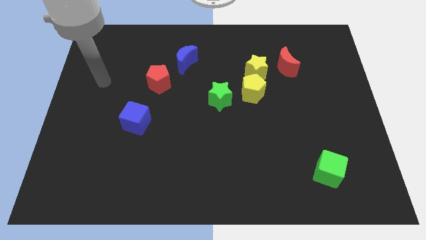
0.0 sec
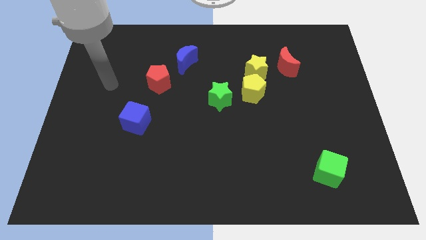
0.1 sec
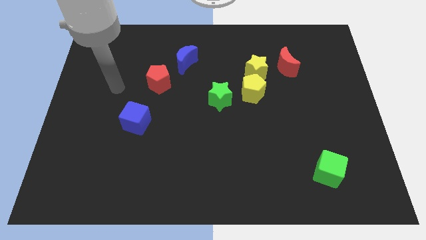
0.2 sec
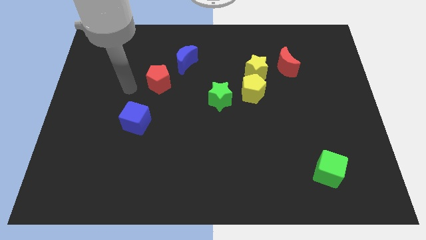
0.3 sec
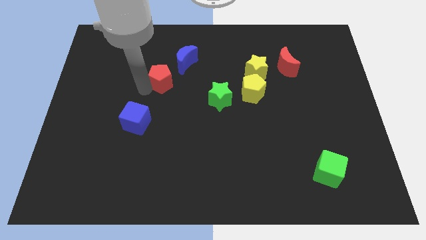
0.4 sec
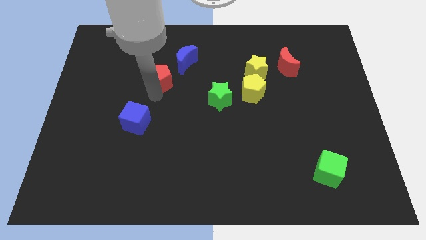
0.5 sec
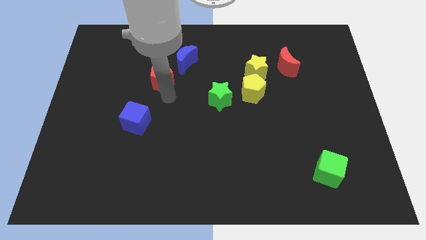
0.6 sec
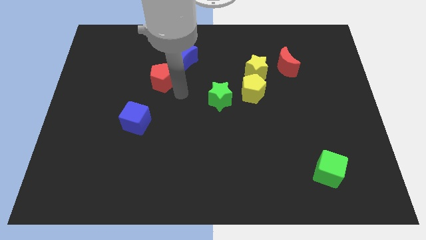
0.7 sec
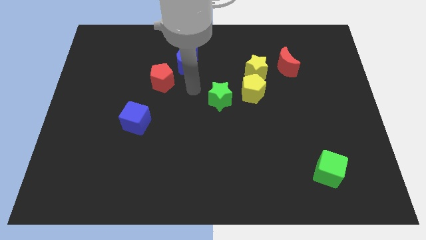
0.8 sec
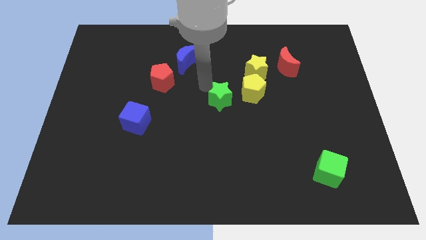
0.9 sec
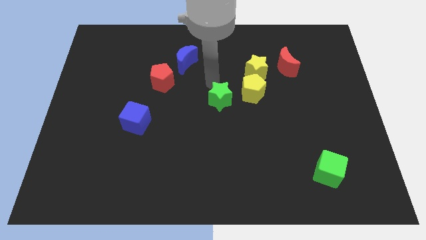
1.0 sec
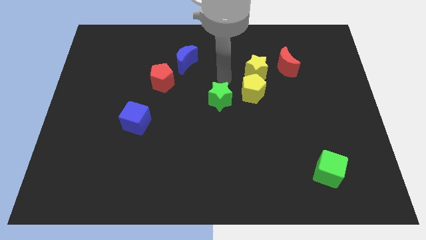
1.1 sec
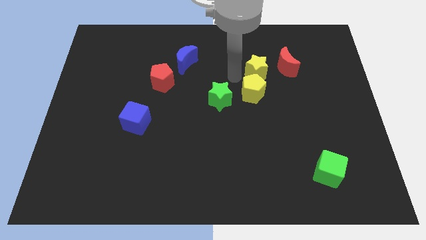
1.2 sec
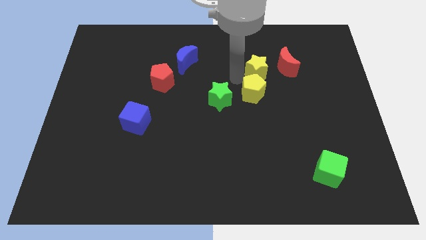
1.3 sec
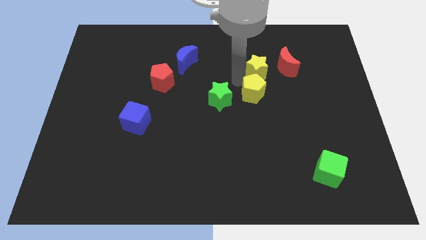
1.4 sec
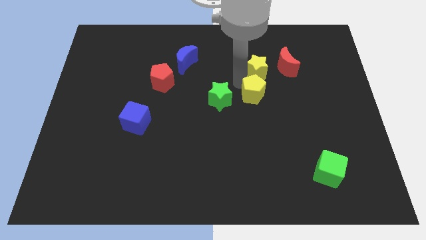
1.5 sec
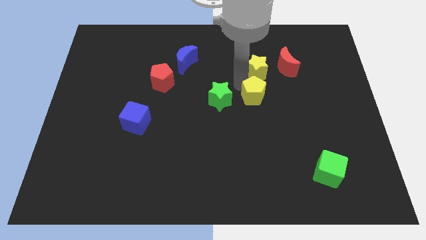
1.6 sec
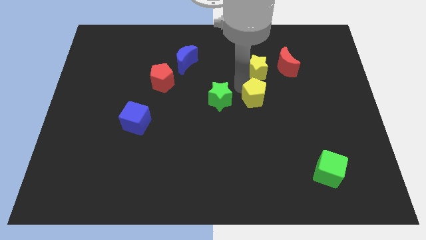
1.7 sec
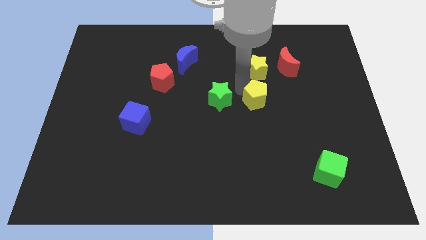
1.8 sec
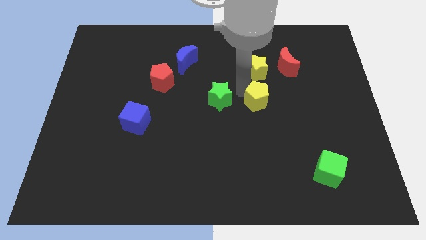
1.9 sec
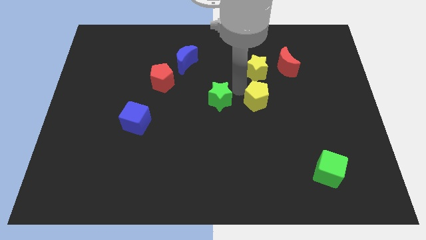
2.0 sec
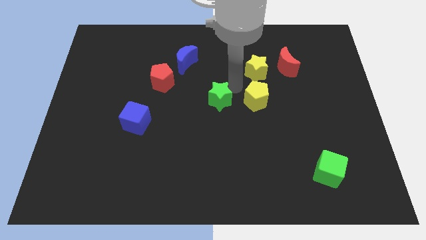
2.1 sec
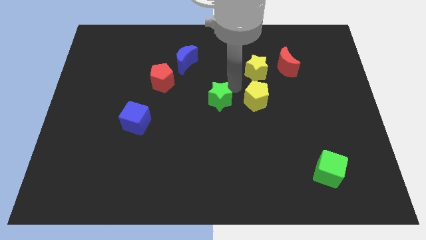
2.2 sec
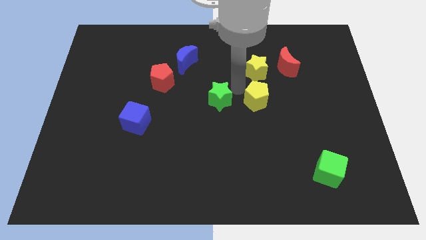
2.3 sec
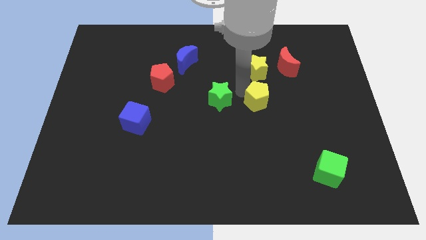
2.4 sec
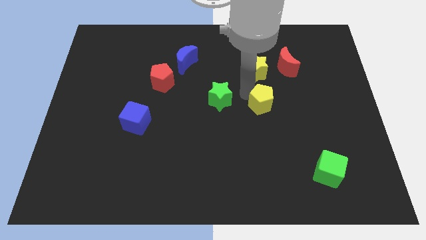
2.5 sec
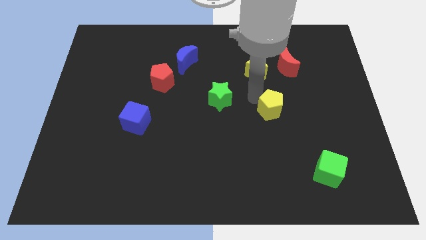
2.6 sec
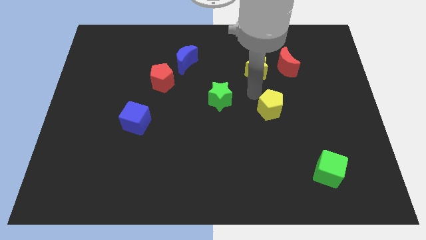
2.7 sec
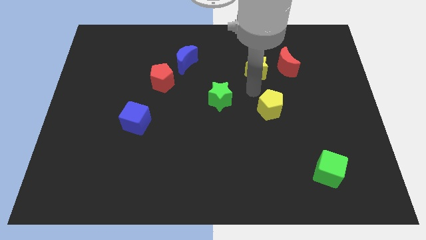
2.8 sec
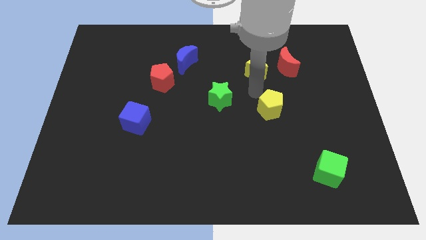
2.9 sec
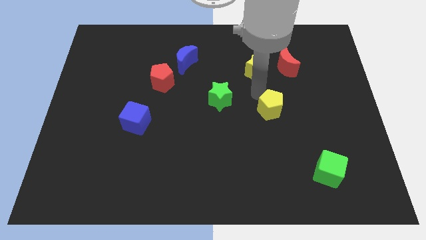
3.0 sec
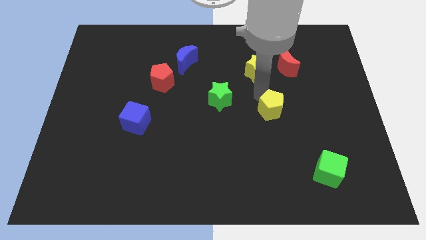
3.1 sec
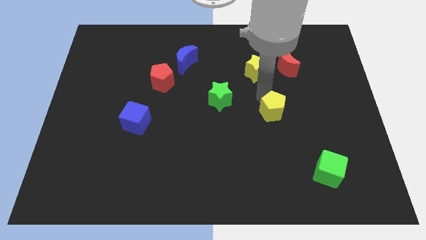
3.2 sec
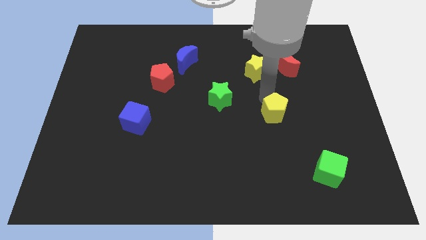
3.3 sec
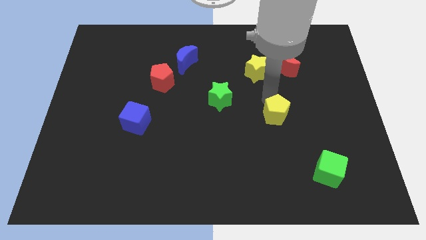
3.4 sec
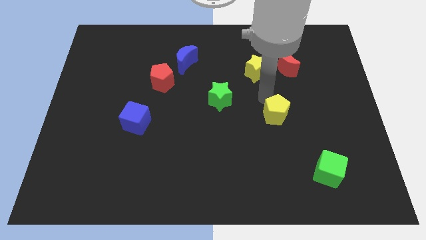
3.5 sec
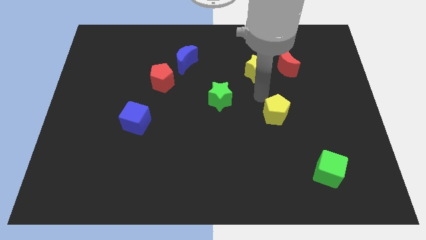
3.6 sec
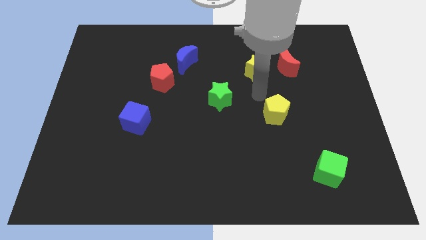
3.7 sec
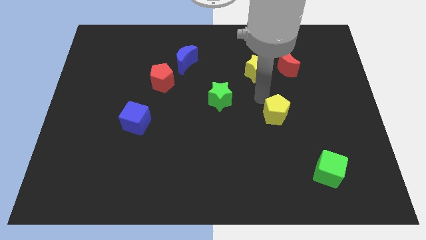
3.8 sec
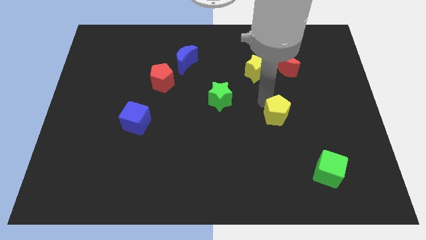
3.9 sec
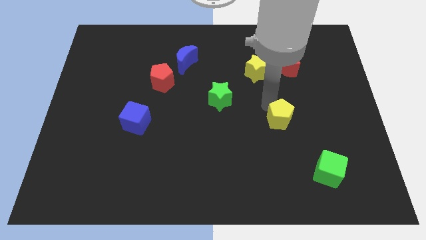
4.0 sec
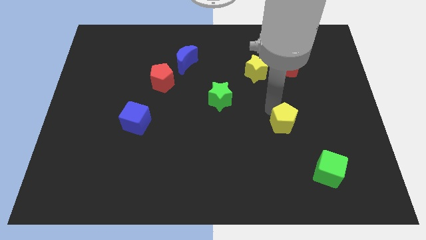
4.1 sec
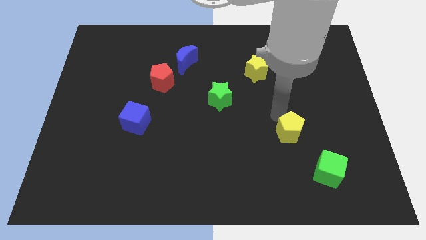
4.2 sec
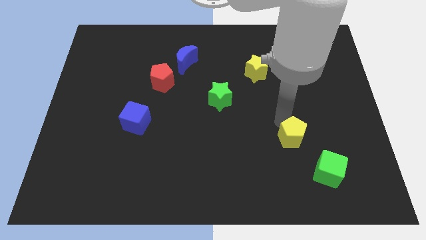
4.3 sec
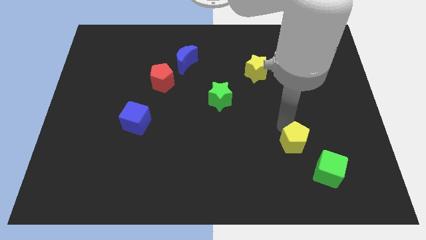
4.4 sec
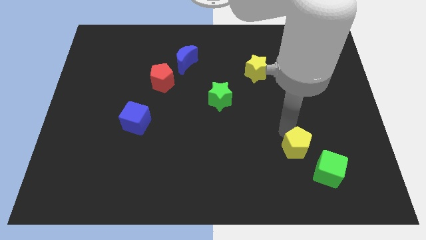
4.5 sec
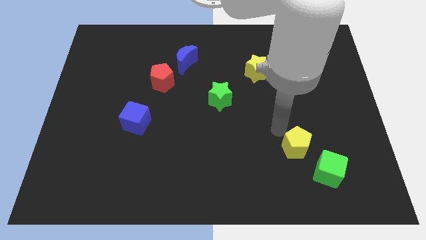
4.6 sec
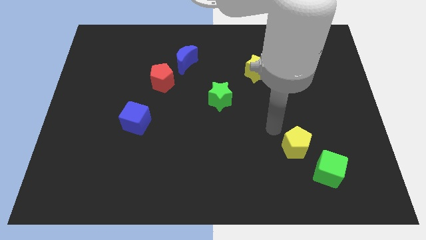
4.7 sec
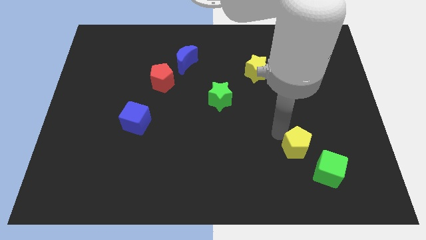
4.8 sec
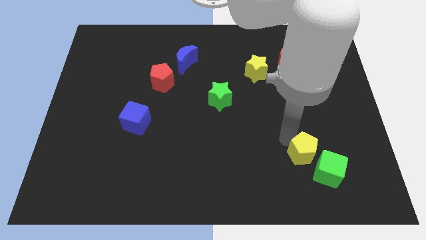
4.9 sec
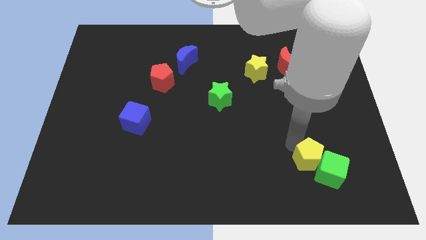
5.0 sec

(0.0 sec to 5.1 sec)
move the yellow pentagon next to the green cube

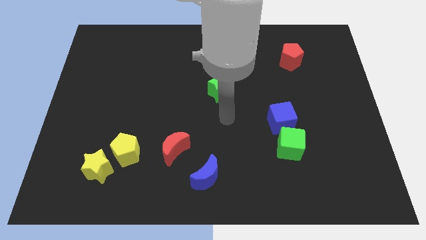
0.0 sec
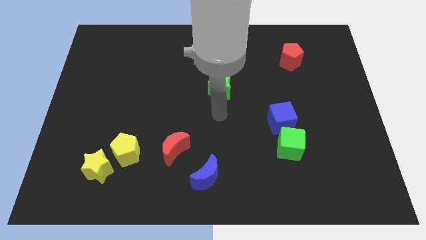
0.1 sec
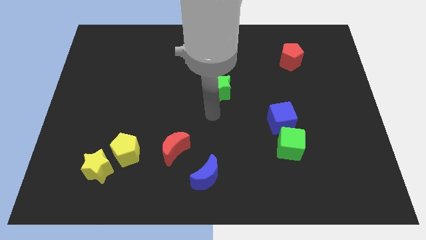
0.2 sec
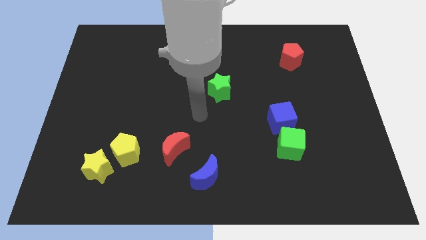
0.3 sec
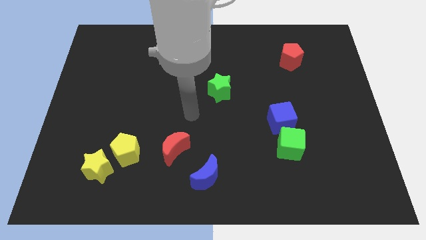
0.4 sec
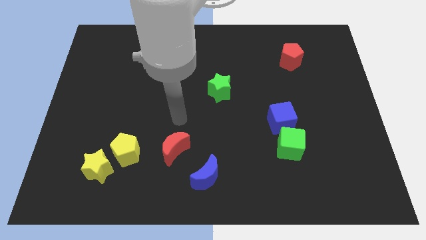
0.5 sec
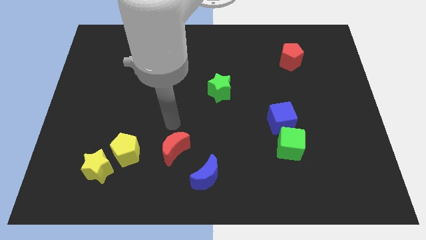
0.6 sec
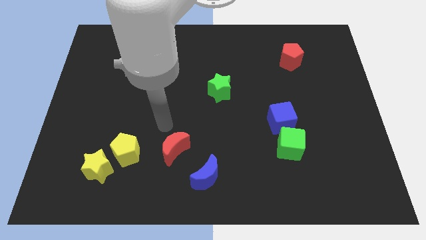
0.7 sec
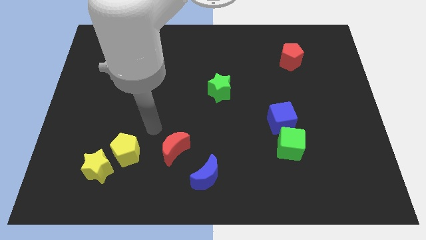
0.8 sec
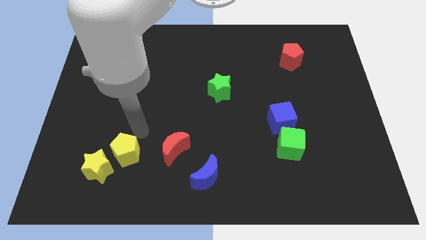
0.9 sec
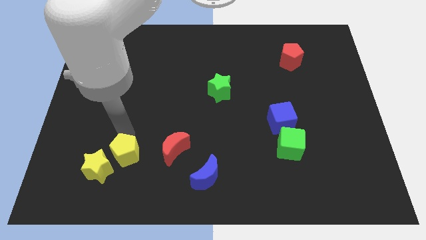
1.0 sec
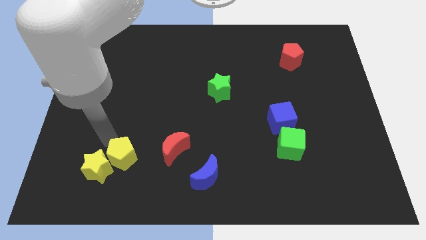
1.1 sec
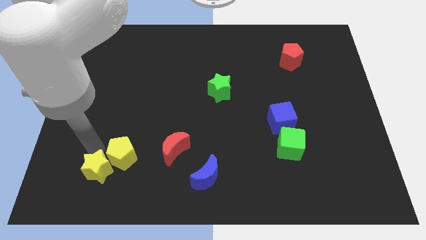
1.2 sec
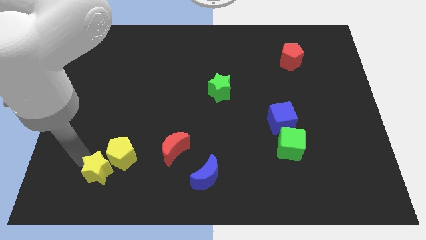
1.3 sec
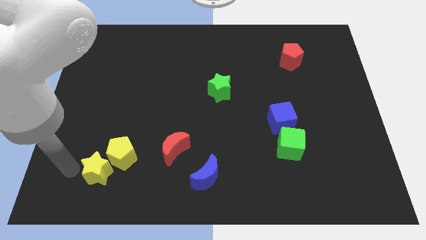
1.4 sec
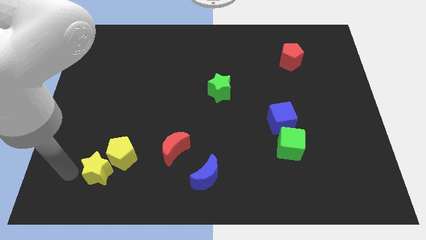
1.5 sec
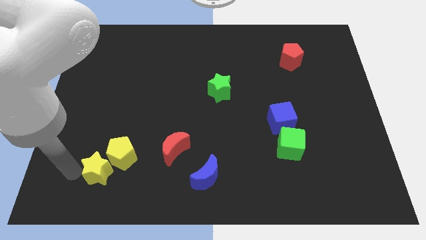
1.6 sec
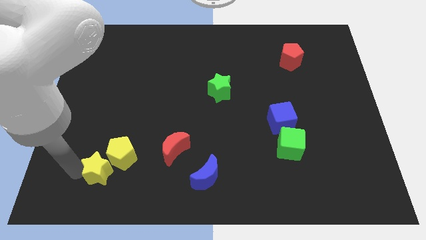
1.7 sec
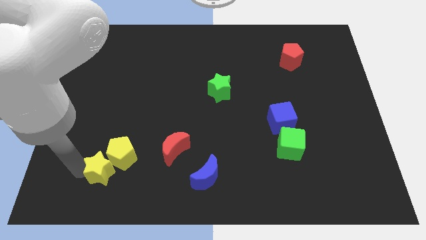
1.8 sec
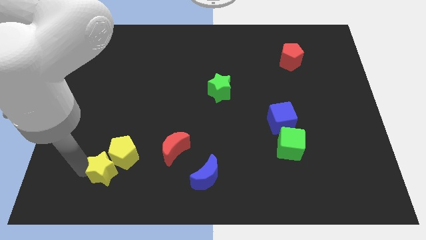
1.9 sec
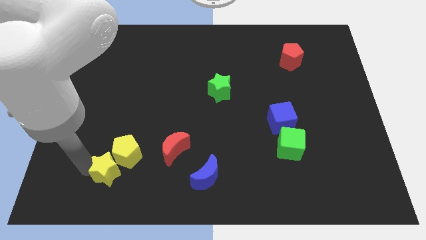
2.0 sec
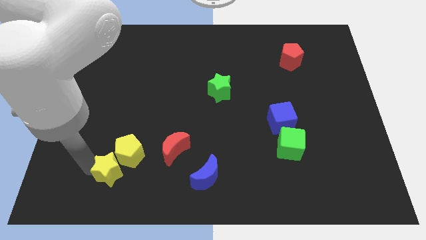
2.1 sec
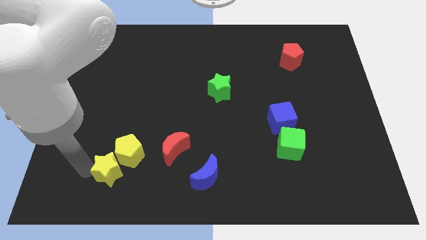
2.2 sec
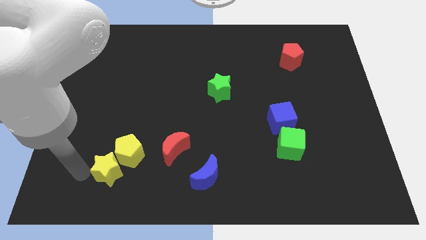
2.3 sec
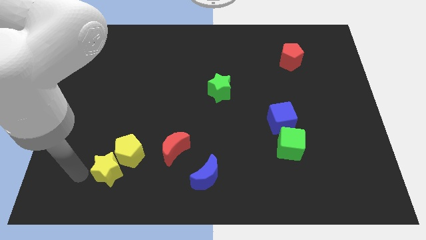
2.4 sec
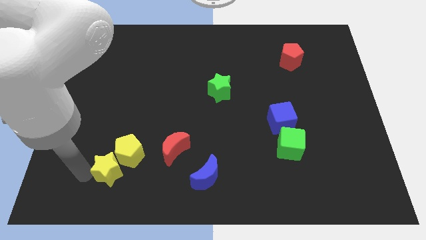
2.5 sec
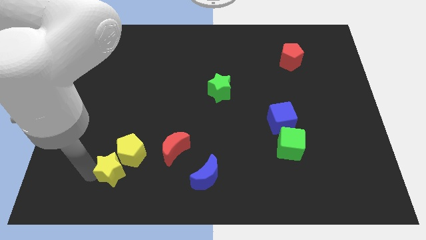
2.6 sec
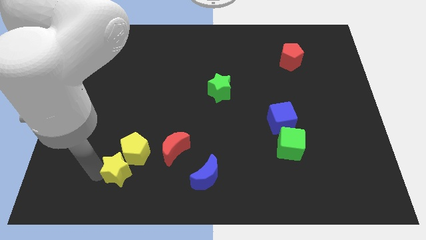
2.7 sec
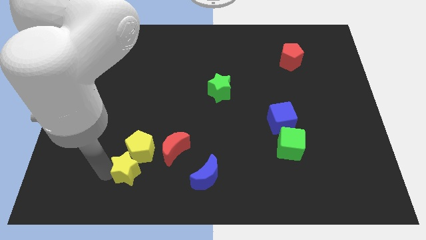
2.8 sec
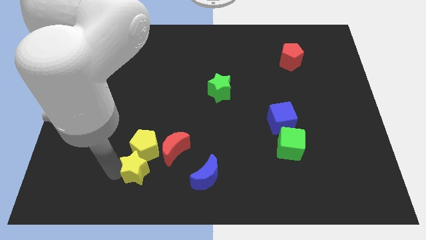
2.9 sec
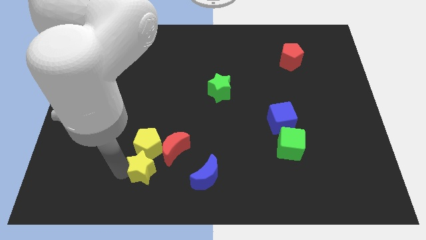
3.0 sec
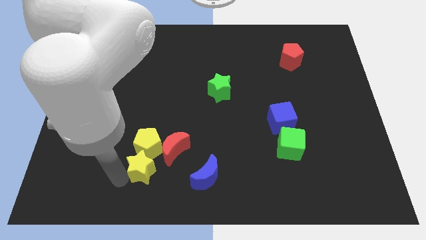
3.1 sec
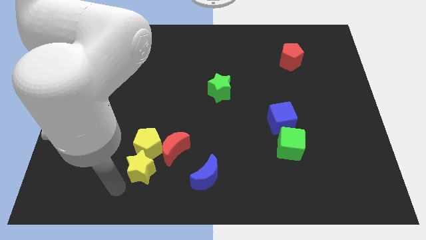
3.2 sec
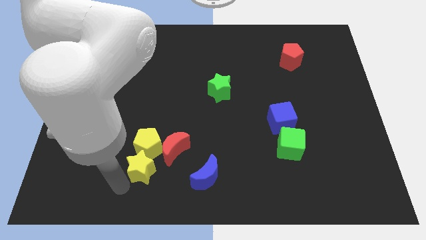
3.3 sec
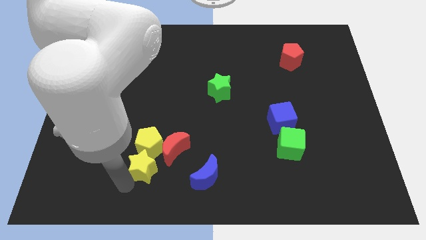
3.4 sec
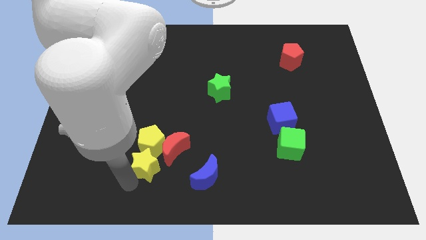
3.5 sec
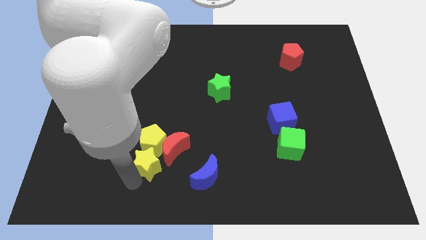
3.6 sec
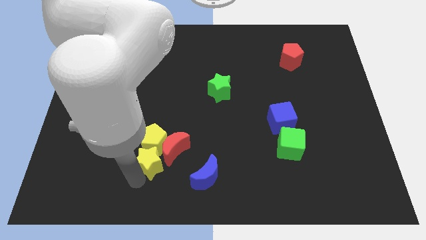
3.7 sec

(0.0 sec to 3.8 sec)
slide the yellow star next to the red moon
